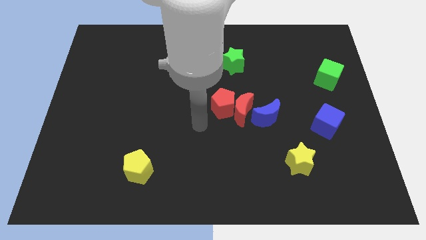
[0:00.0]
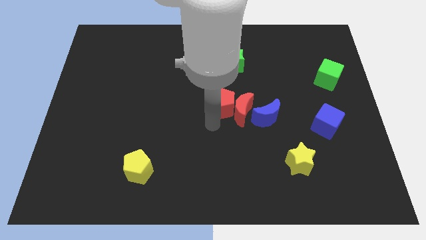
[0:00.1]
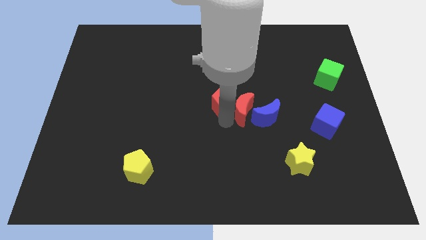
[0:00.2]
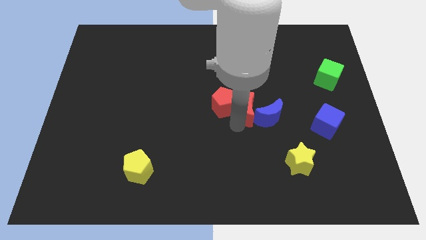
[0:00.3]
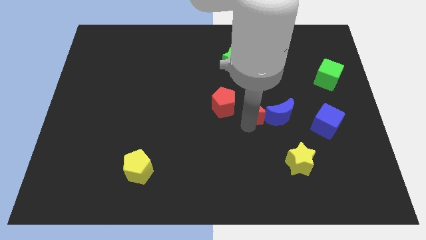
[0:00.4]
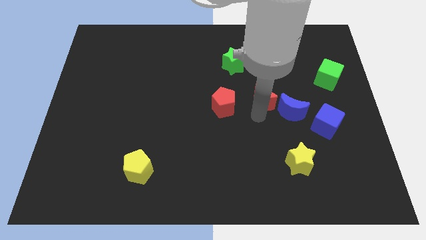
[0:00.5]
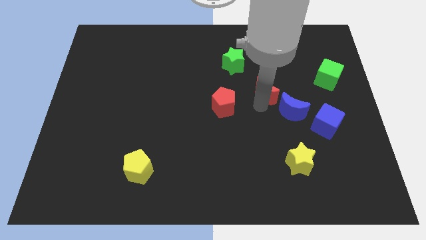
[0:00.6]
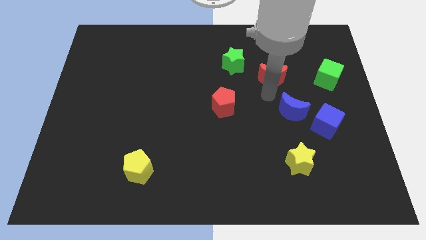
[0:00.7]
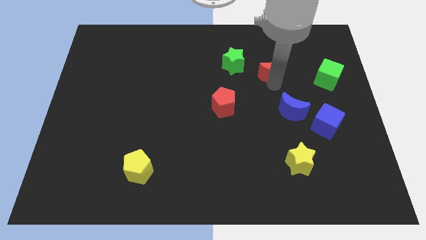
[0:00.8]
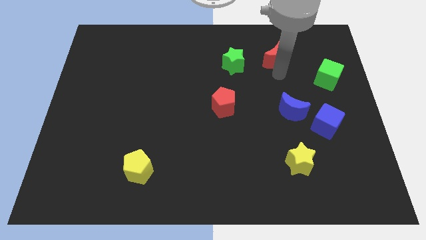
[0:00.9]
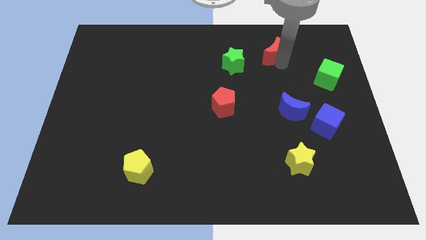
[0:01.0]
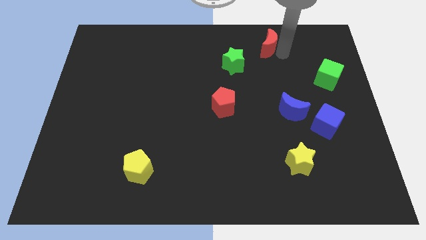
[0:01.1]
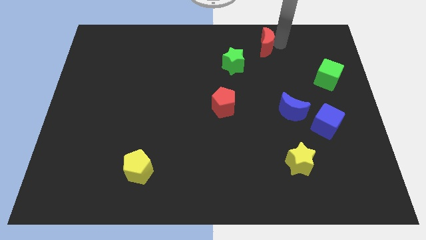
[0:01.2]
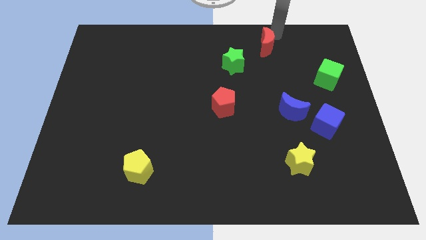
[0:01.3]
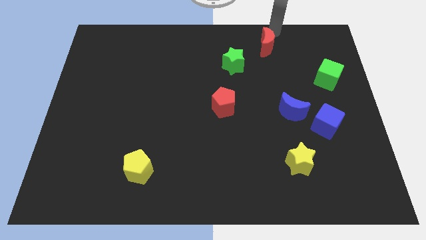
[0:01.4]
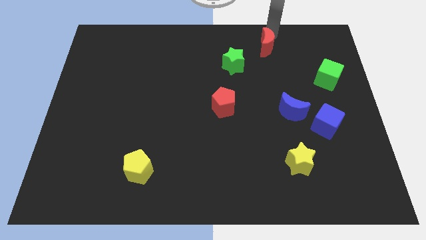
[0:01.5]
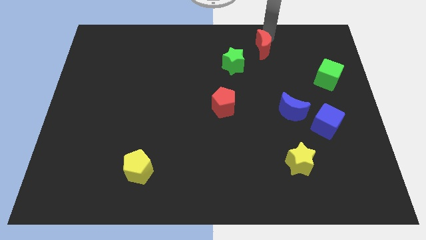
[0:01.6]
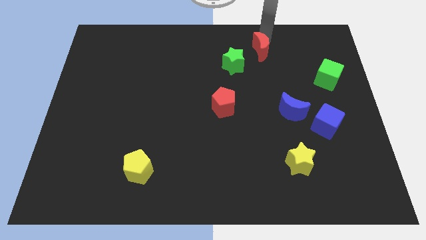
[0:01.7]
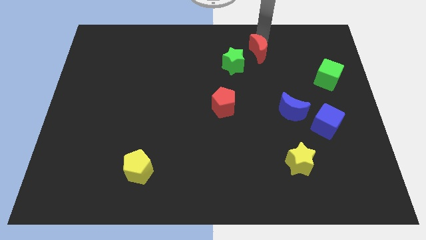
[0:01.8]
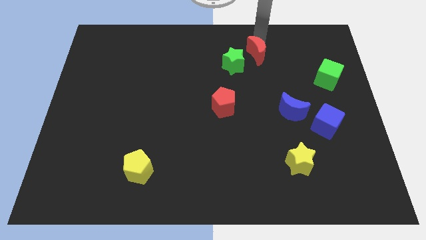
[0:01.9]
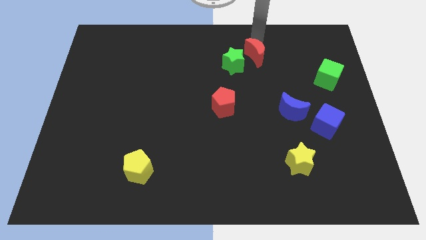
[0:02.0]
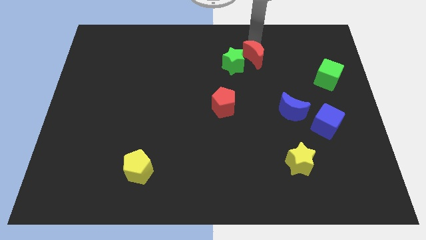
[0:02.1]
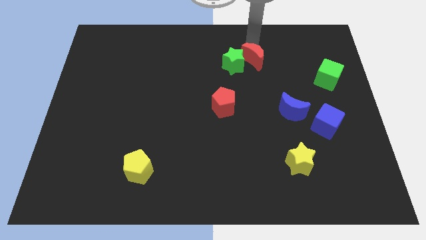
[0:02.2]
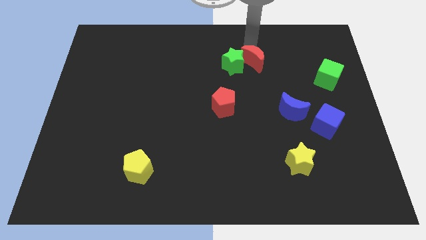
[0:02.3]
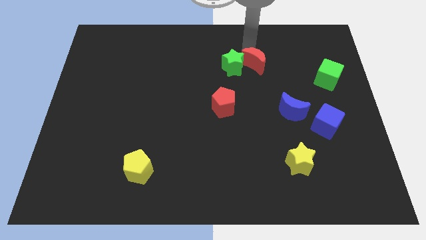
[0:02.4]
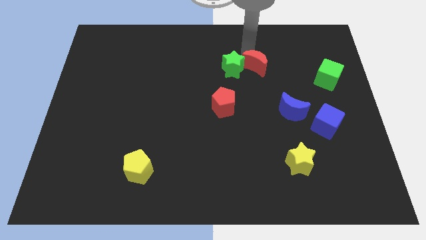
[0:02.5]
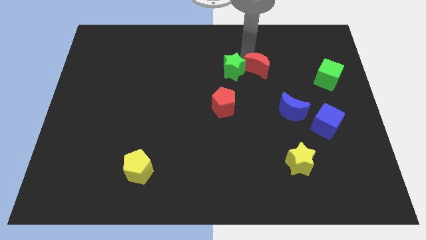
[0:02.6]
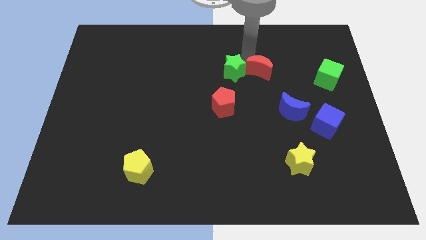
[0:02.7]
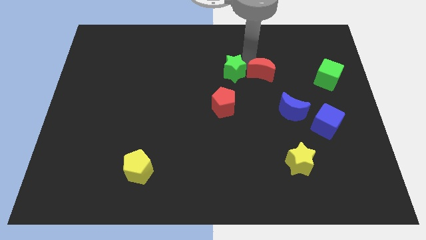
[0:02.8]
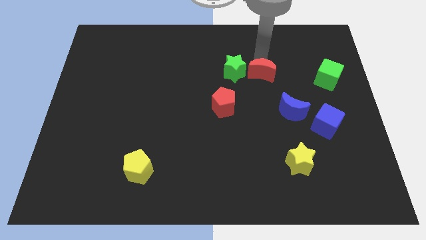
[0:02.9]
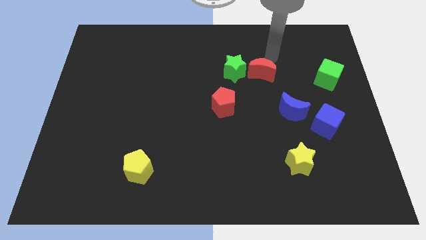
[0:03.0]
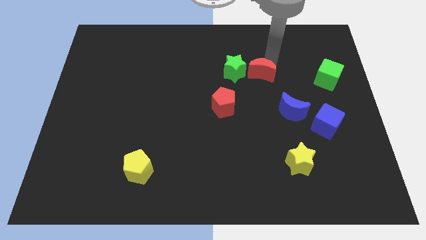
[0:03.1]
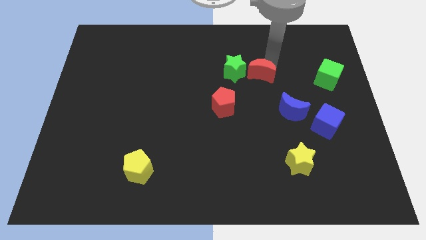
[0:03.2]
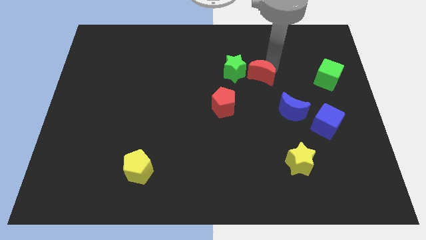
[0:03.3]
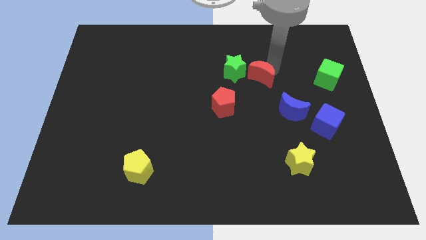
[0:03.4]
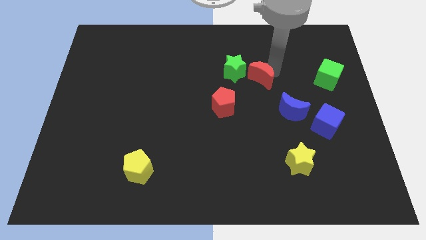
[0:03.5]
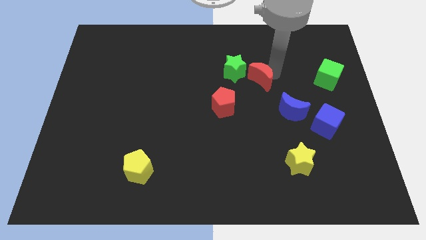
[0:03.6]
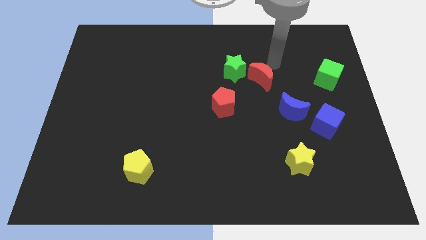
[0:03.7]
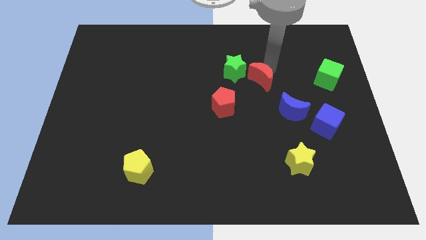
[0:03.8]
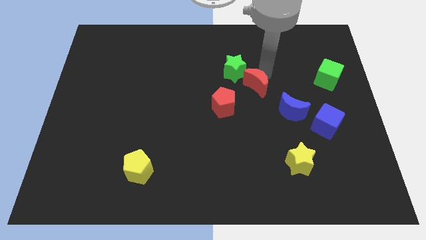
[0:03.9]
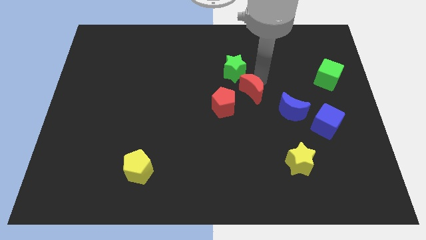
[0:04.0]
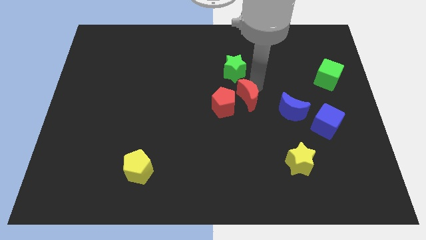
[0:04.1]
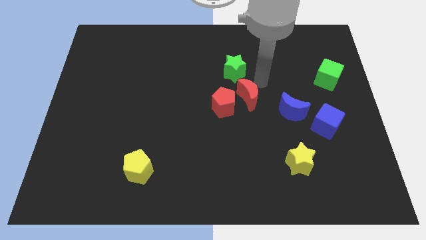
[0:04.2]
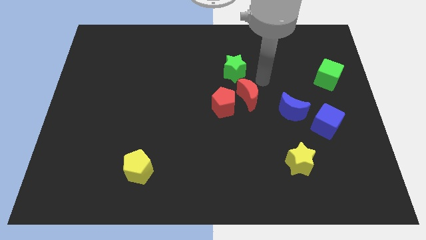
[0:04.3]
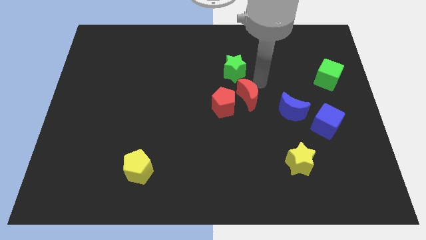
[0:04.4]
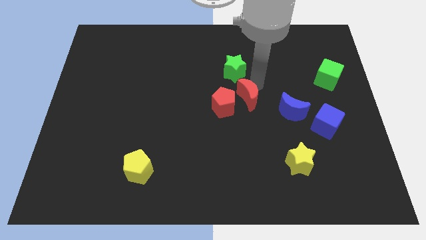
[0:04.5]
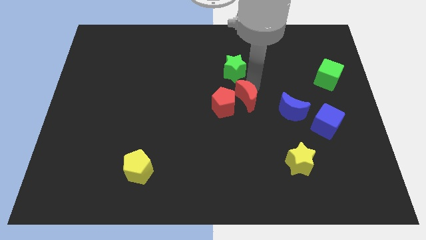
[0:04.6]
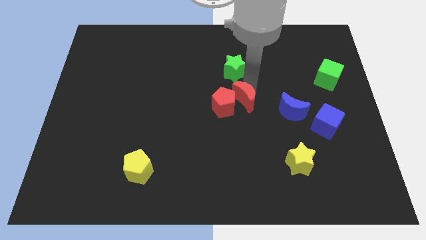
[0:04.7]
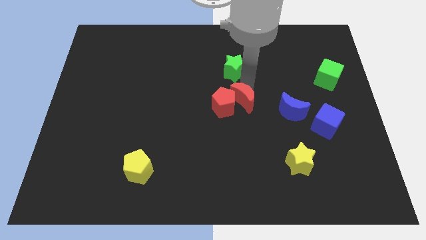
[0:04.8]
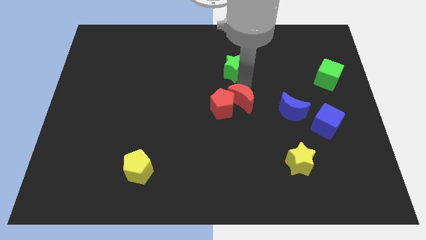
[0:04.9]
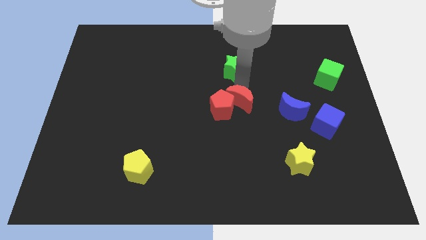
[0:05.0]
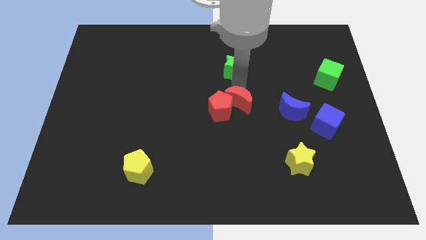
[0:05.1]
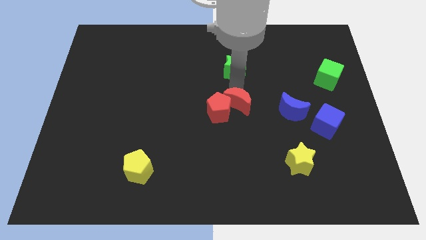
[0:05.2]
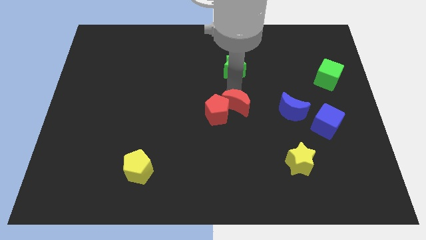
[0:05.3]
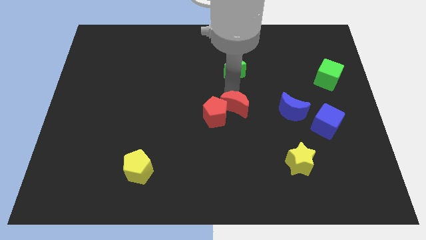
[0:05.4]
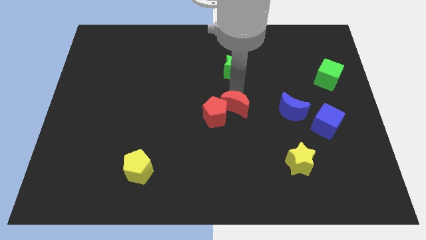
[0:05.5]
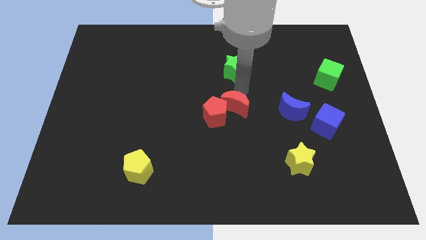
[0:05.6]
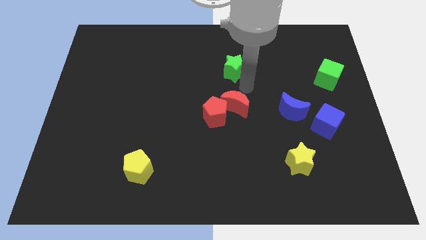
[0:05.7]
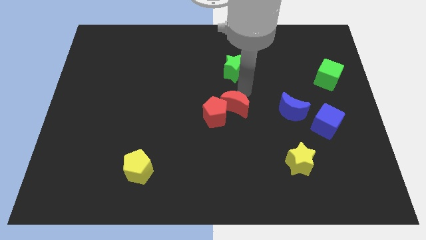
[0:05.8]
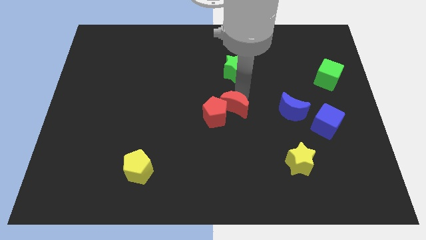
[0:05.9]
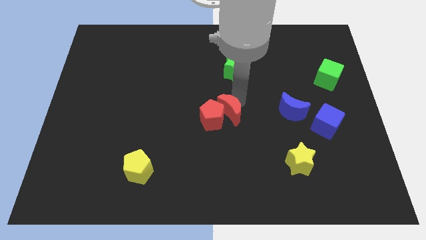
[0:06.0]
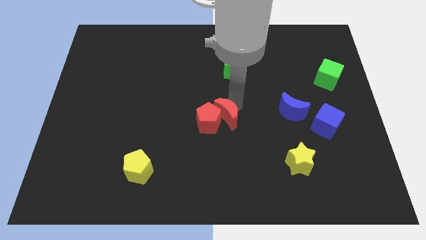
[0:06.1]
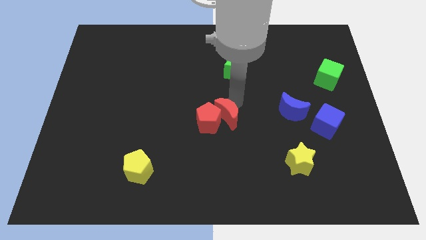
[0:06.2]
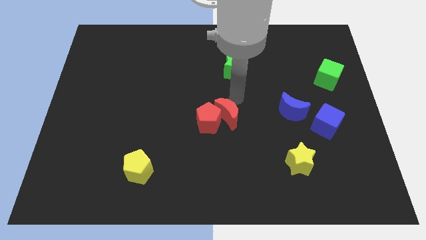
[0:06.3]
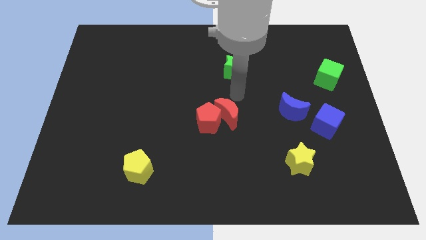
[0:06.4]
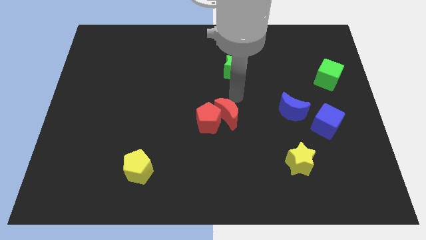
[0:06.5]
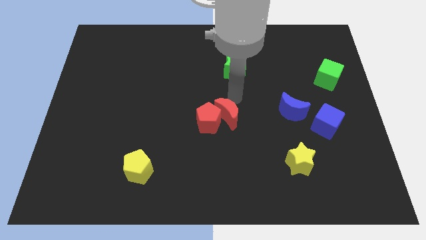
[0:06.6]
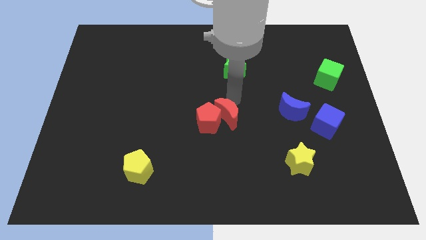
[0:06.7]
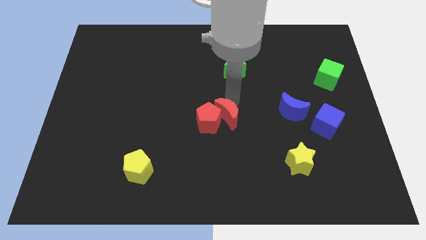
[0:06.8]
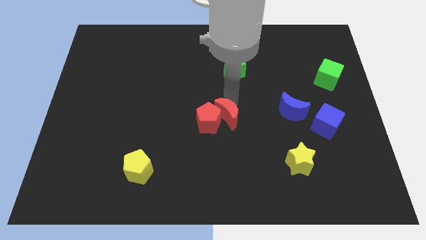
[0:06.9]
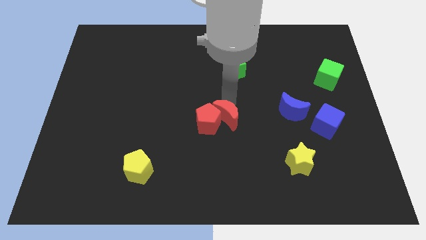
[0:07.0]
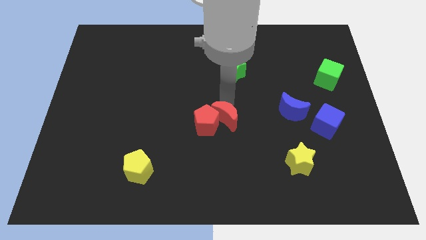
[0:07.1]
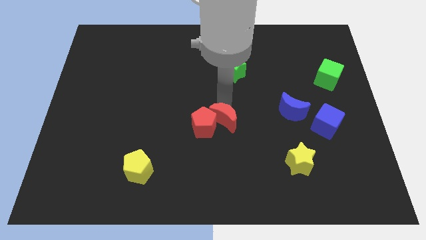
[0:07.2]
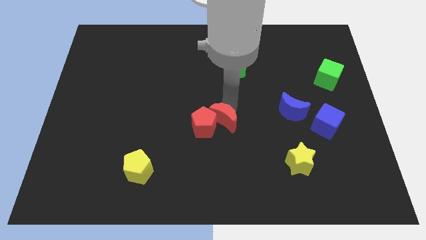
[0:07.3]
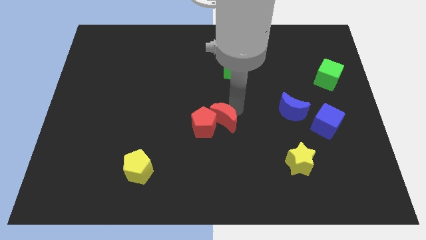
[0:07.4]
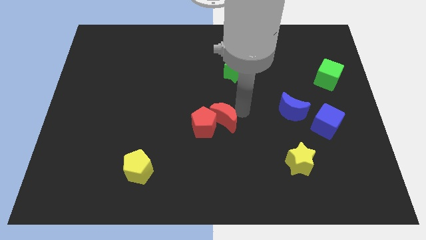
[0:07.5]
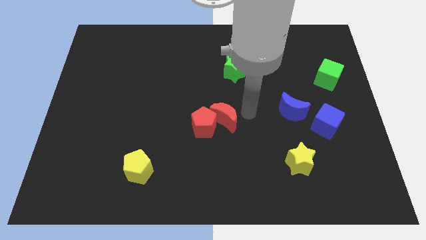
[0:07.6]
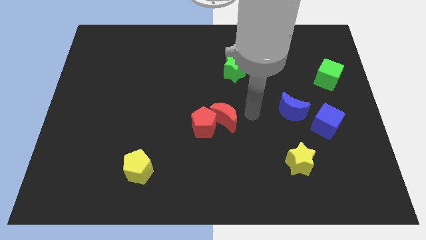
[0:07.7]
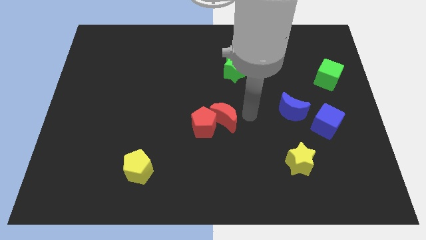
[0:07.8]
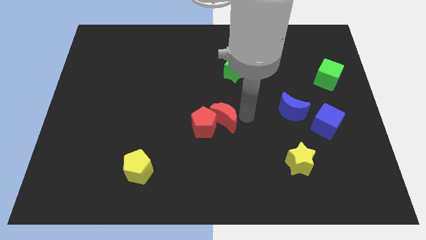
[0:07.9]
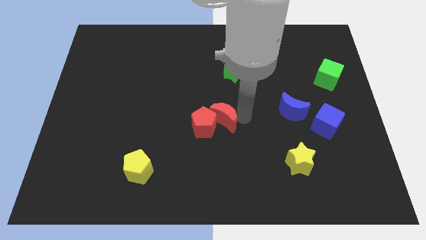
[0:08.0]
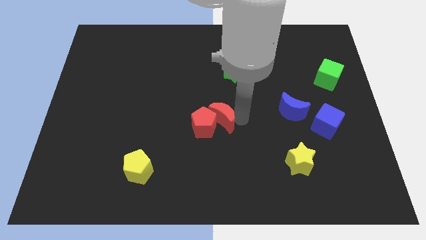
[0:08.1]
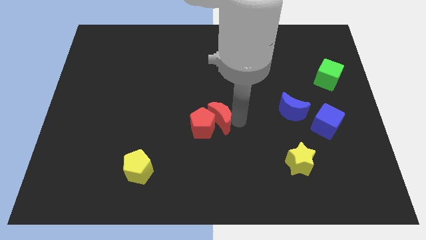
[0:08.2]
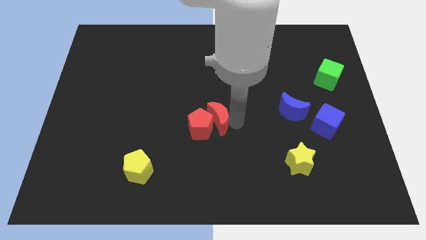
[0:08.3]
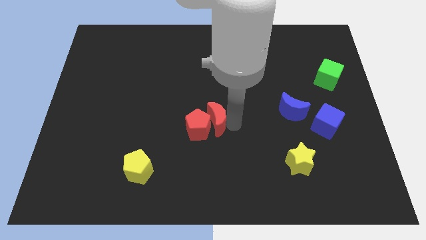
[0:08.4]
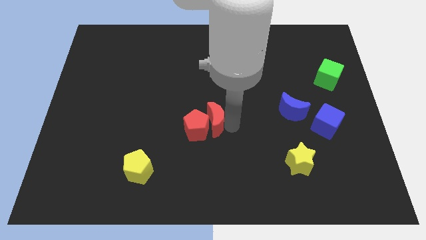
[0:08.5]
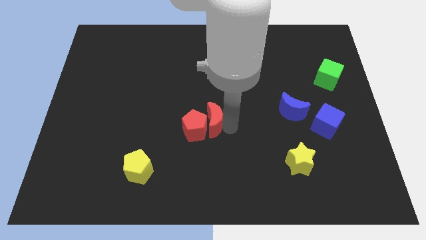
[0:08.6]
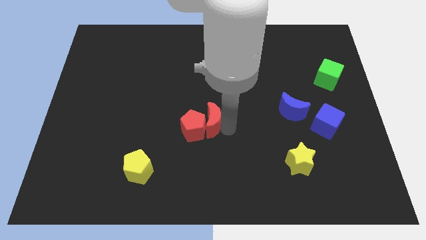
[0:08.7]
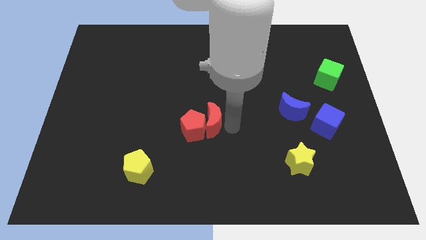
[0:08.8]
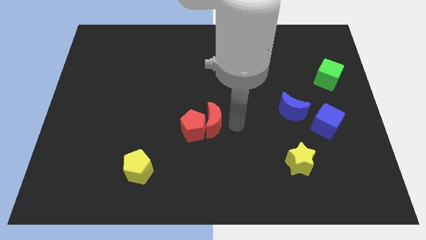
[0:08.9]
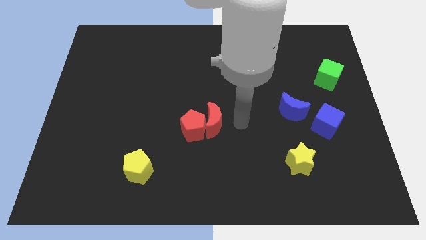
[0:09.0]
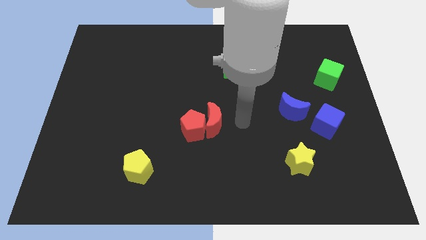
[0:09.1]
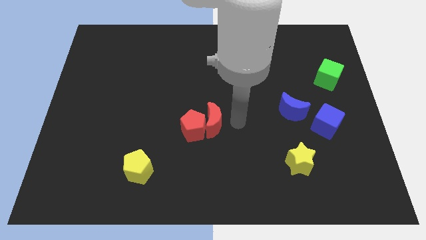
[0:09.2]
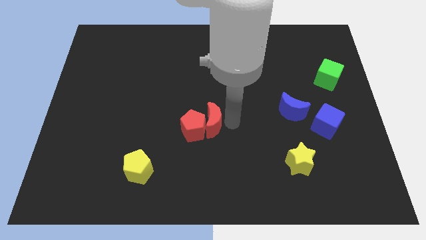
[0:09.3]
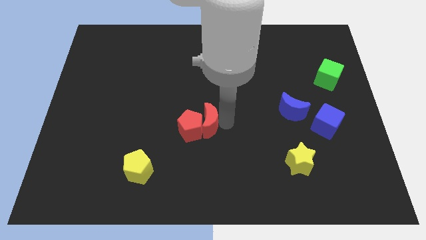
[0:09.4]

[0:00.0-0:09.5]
move the red moon a little to the left
